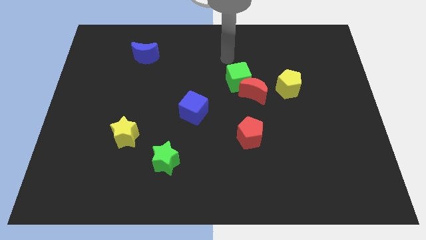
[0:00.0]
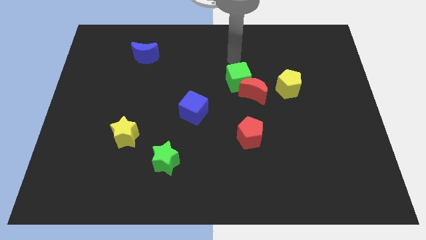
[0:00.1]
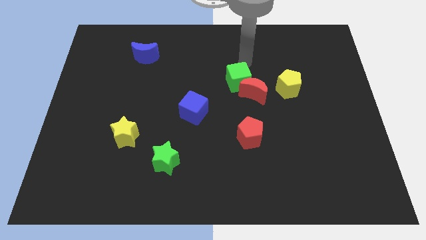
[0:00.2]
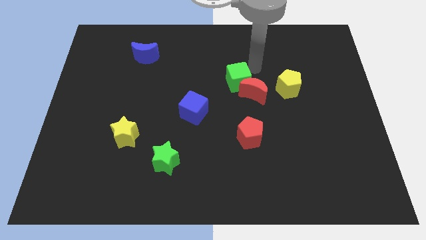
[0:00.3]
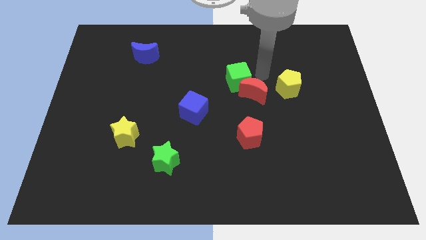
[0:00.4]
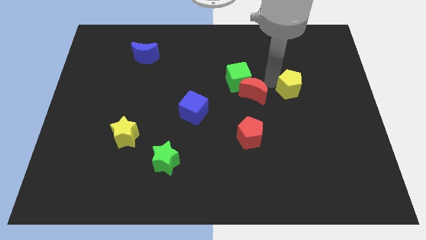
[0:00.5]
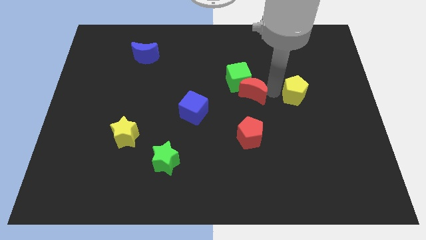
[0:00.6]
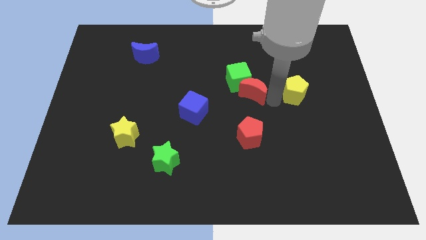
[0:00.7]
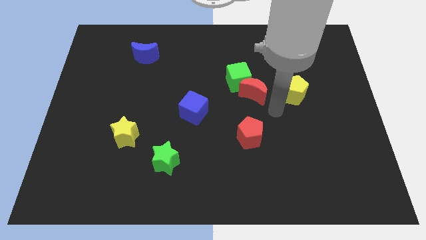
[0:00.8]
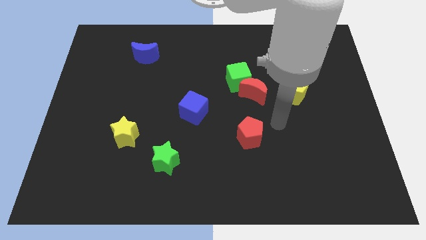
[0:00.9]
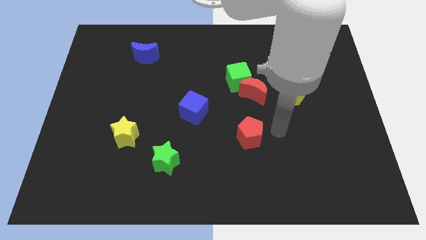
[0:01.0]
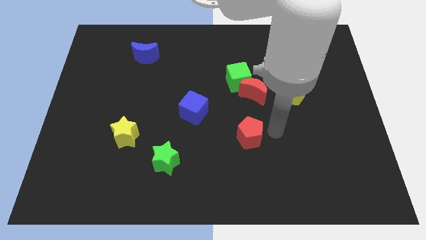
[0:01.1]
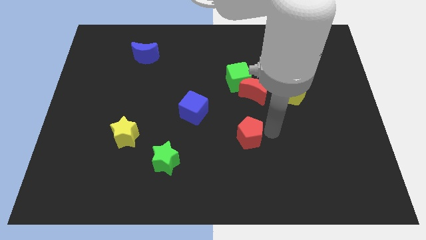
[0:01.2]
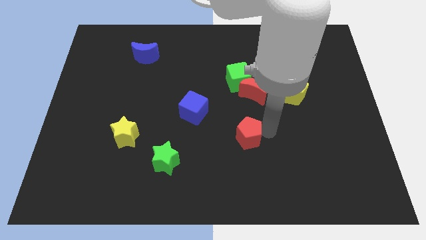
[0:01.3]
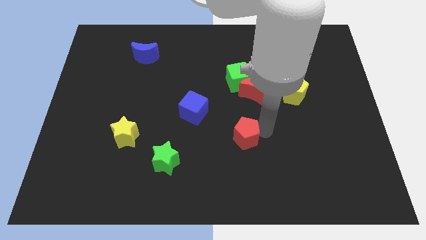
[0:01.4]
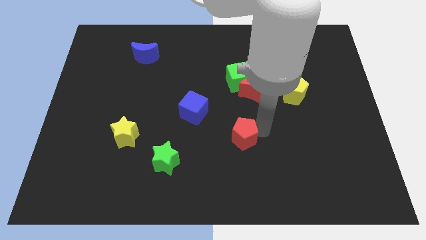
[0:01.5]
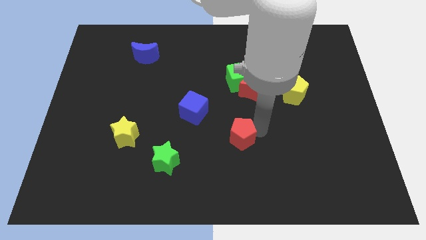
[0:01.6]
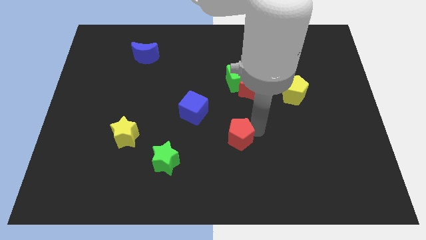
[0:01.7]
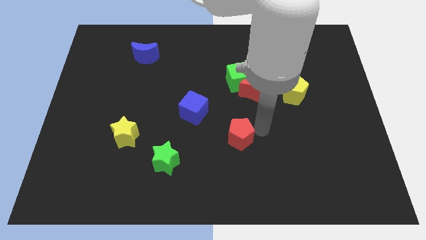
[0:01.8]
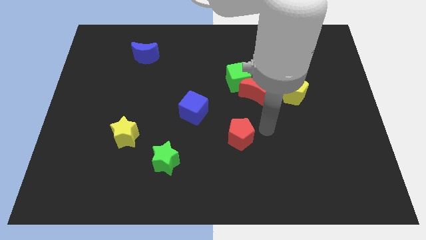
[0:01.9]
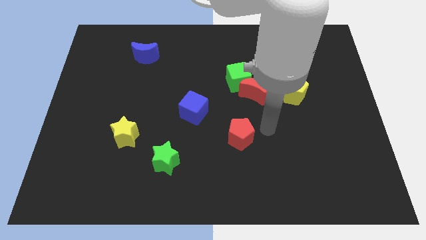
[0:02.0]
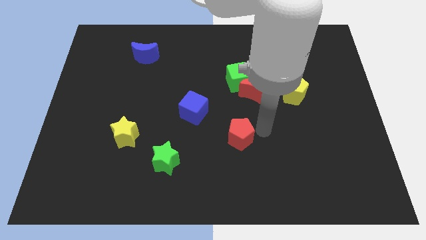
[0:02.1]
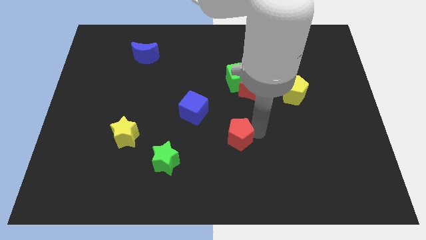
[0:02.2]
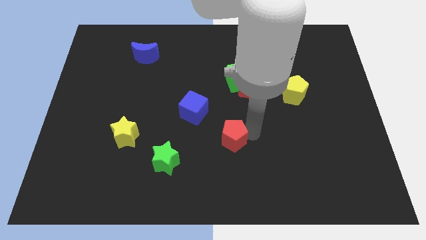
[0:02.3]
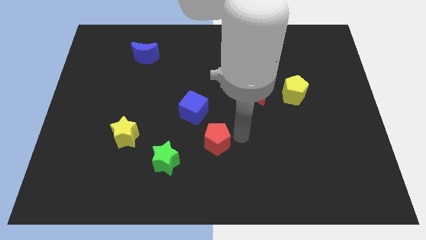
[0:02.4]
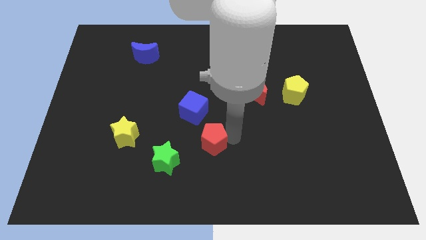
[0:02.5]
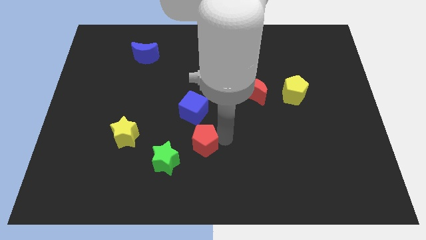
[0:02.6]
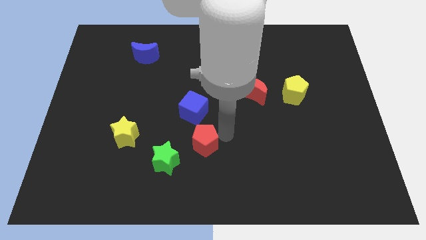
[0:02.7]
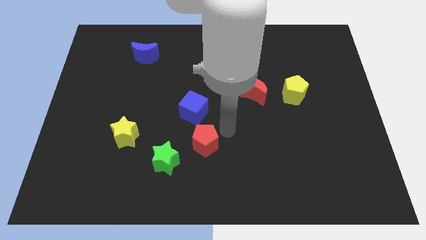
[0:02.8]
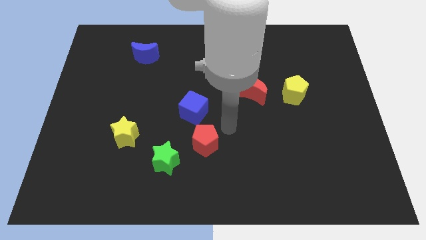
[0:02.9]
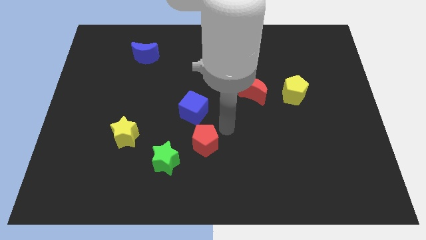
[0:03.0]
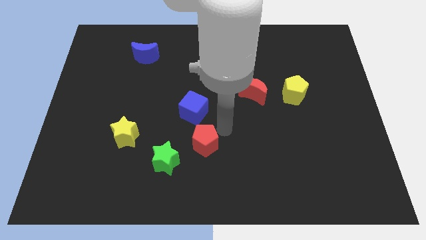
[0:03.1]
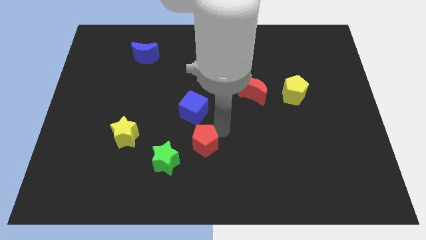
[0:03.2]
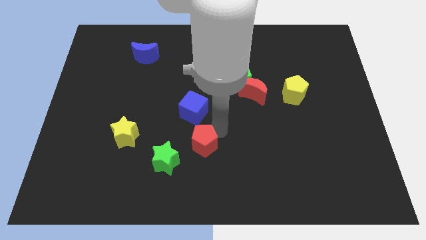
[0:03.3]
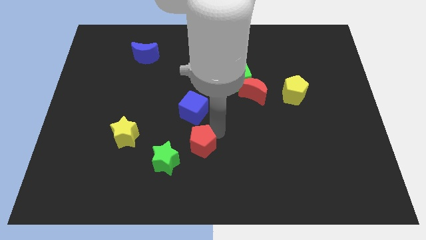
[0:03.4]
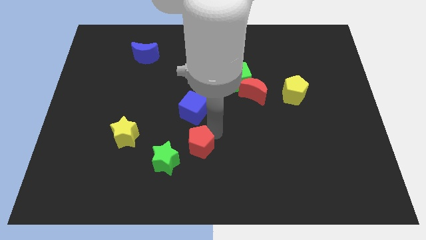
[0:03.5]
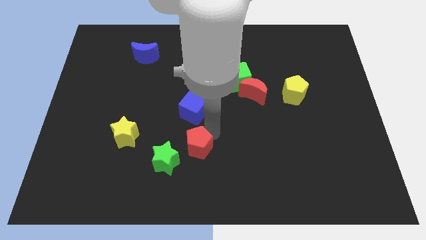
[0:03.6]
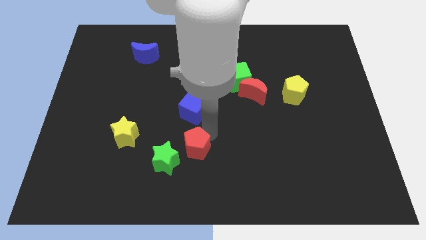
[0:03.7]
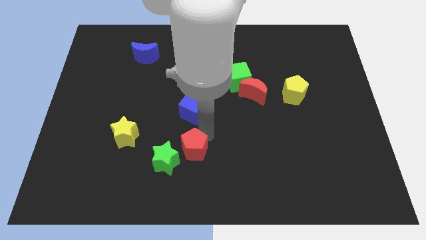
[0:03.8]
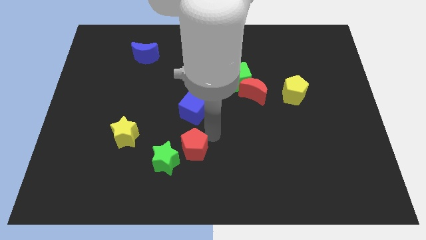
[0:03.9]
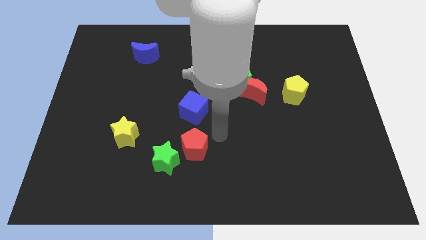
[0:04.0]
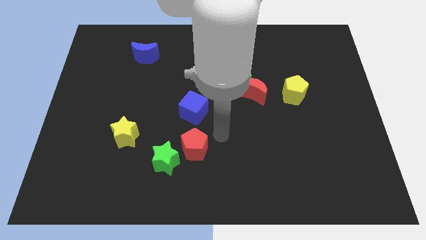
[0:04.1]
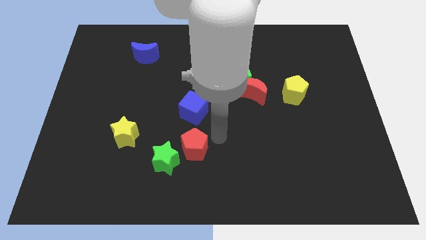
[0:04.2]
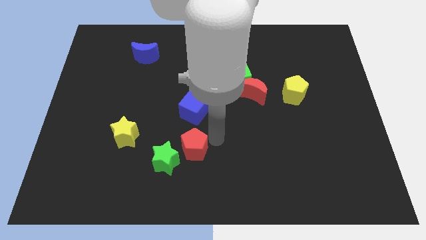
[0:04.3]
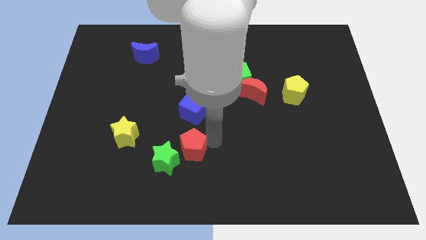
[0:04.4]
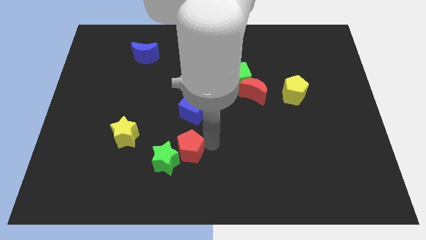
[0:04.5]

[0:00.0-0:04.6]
push the red pentagon close to the green star

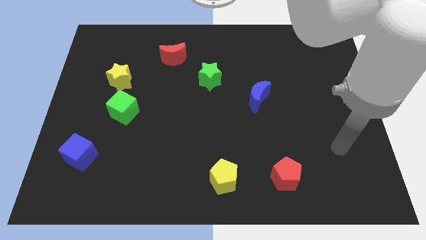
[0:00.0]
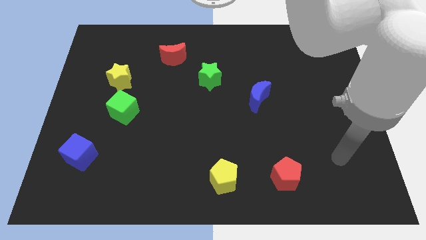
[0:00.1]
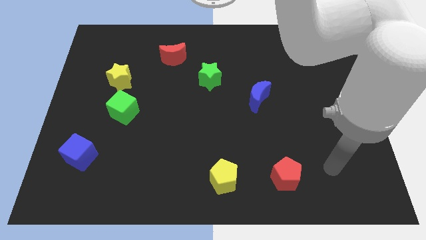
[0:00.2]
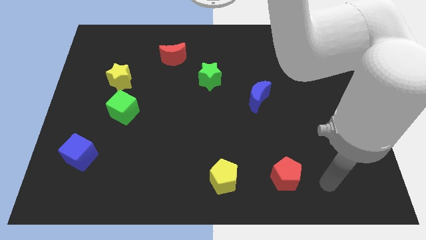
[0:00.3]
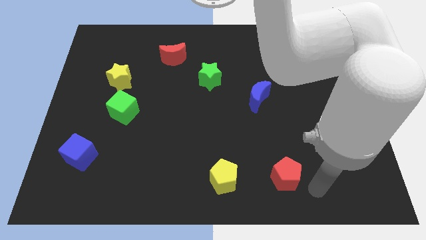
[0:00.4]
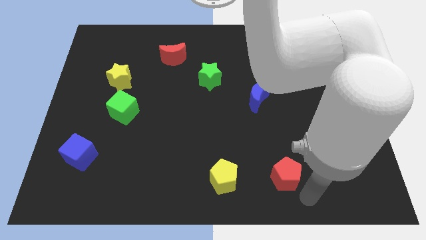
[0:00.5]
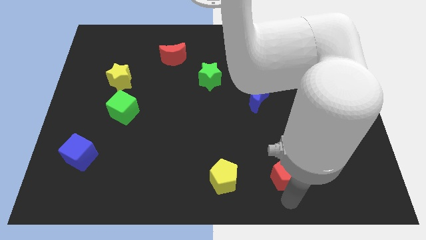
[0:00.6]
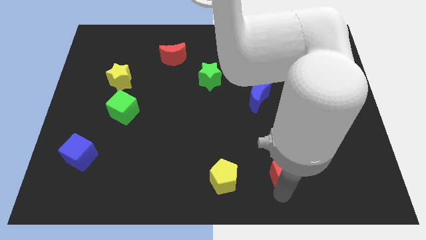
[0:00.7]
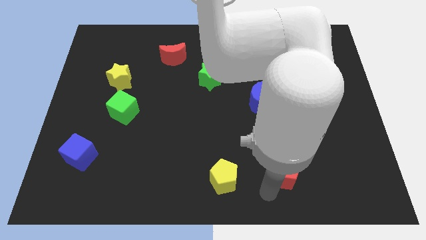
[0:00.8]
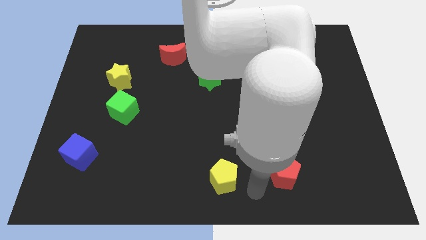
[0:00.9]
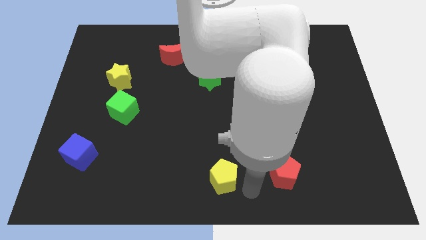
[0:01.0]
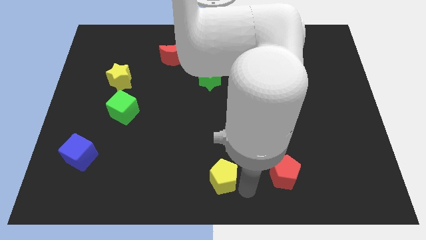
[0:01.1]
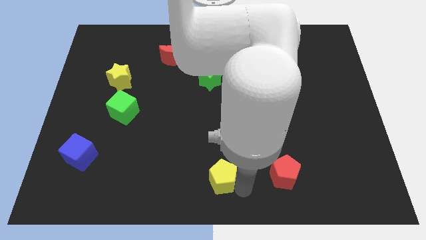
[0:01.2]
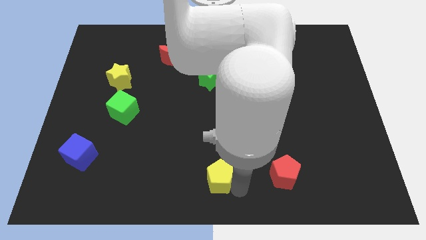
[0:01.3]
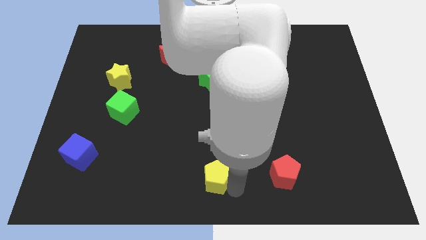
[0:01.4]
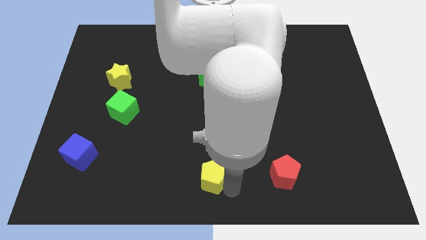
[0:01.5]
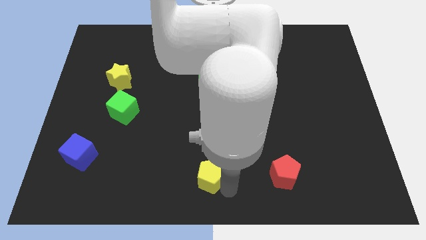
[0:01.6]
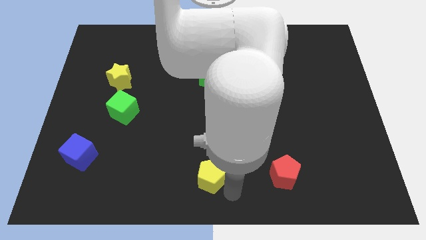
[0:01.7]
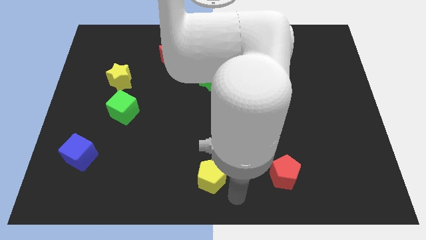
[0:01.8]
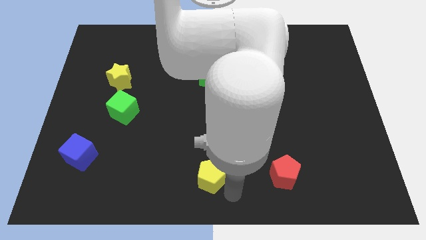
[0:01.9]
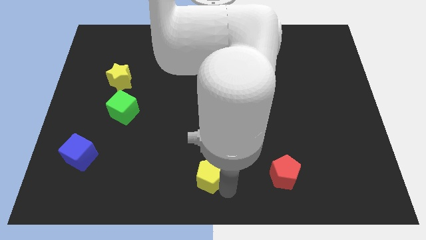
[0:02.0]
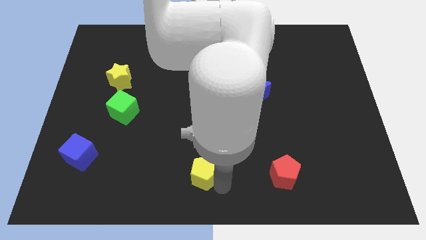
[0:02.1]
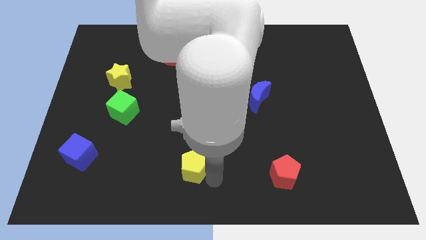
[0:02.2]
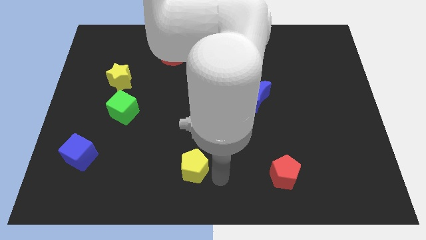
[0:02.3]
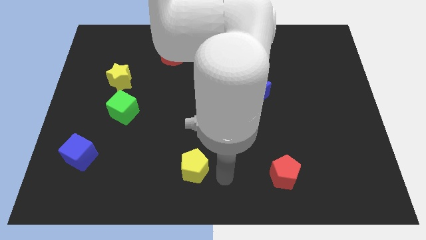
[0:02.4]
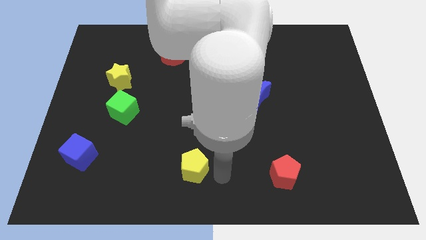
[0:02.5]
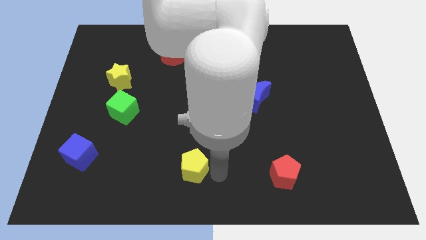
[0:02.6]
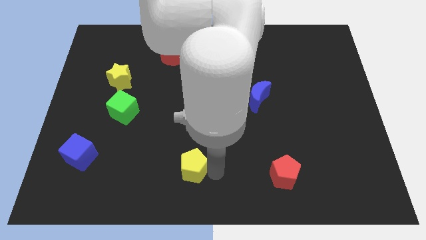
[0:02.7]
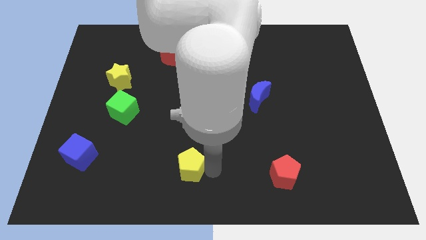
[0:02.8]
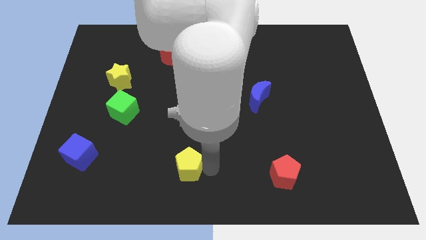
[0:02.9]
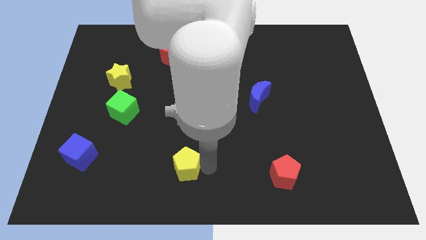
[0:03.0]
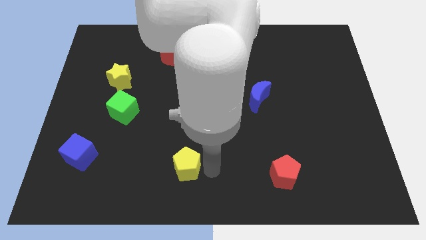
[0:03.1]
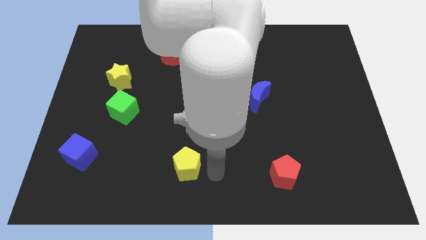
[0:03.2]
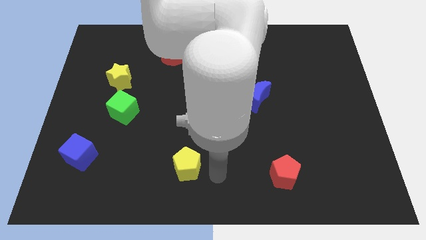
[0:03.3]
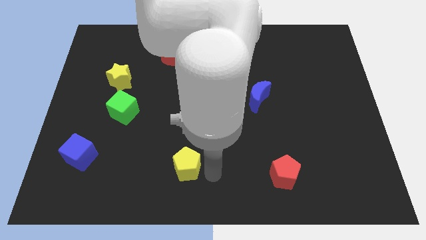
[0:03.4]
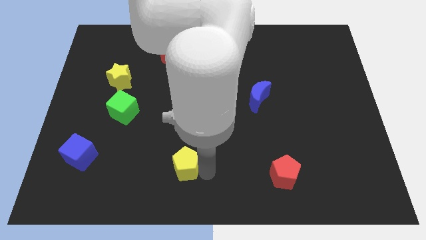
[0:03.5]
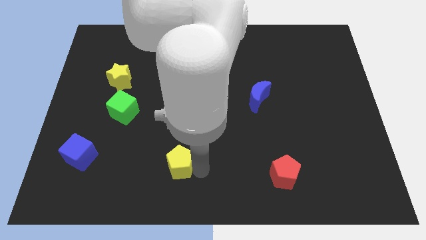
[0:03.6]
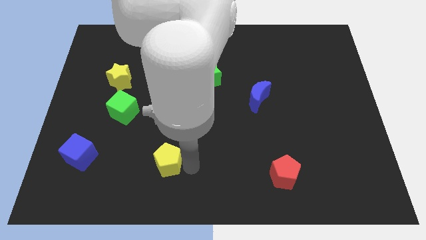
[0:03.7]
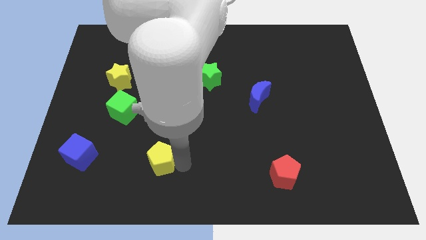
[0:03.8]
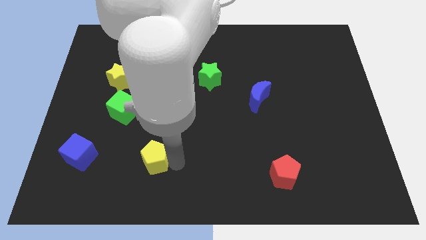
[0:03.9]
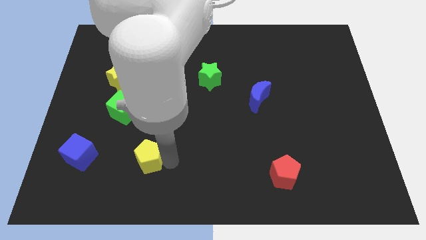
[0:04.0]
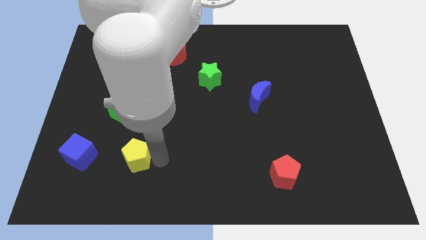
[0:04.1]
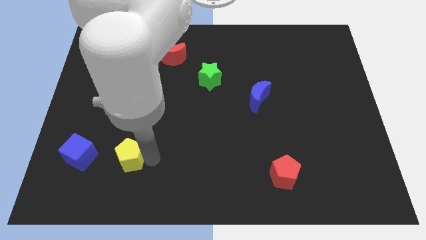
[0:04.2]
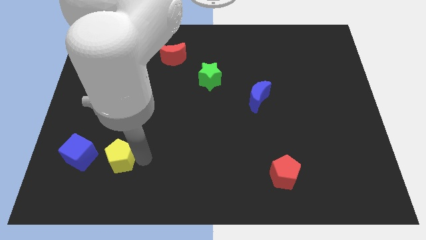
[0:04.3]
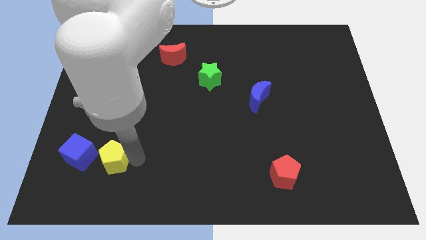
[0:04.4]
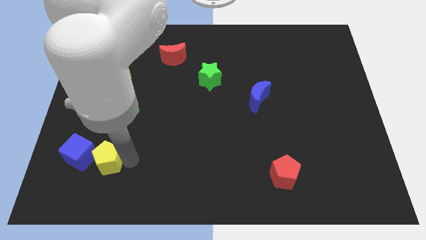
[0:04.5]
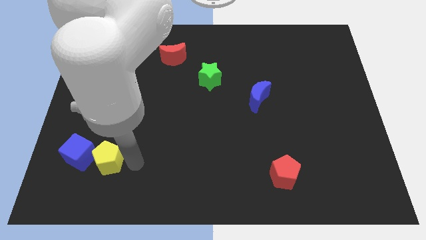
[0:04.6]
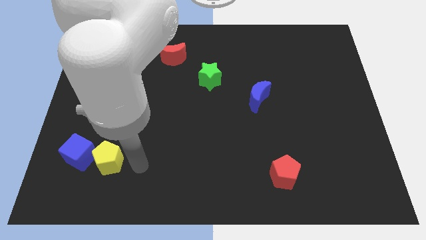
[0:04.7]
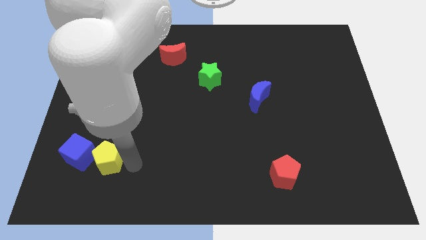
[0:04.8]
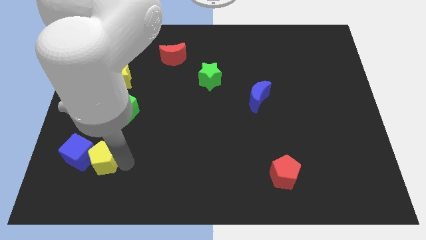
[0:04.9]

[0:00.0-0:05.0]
slide the yellow pentagon to the blue cube
